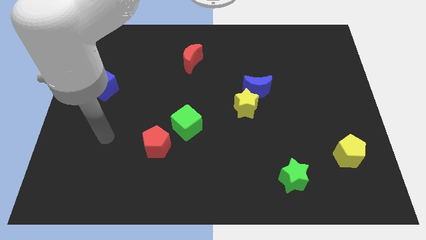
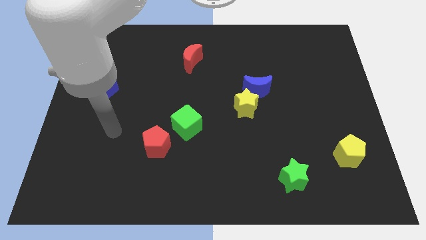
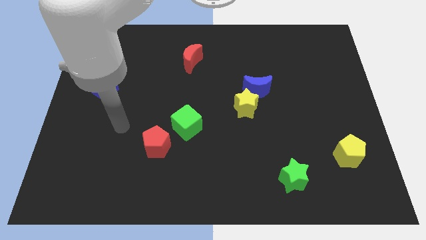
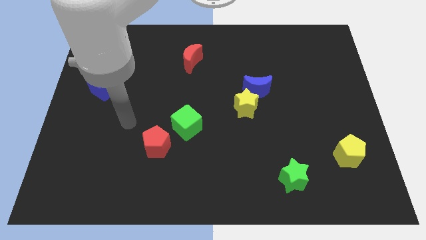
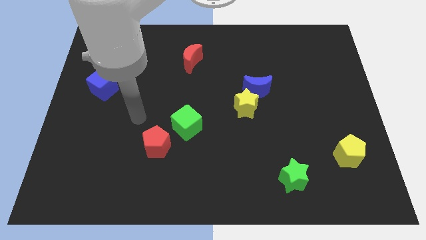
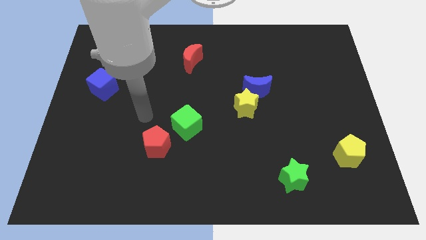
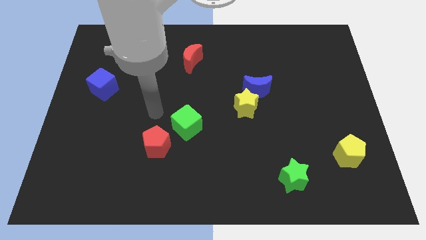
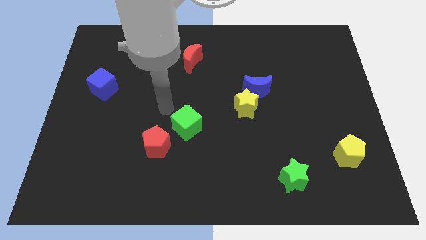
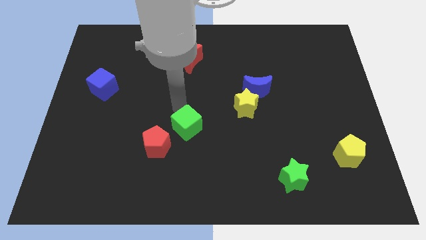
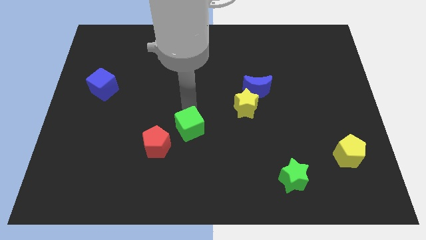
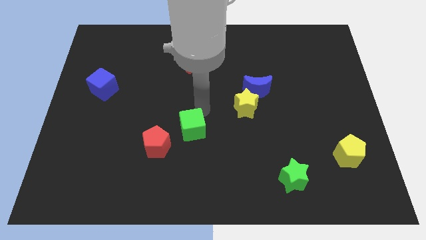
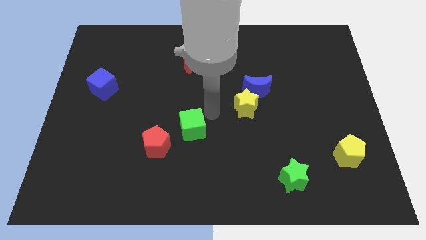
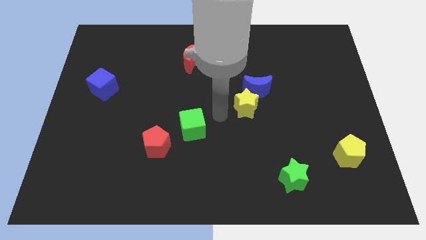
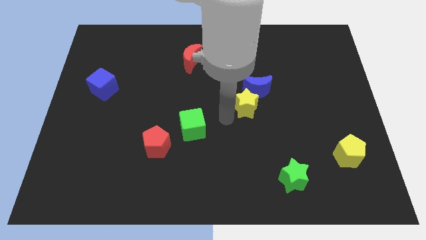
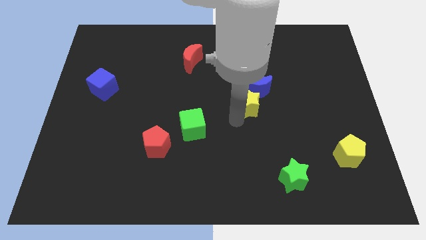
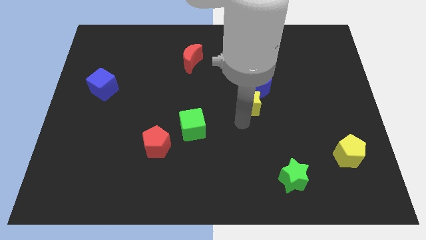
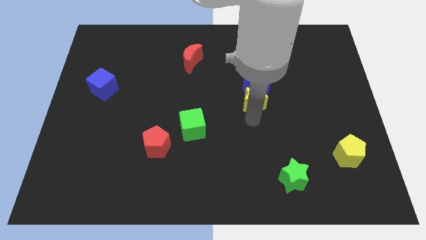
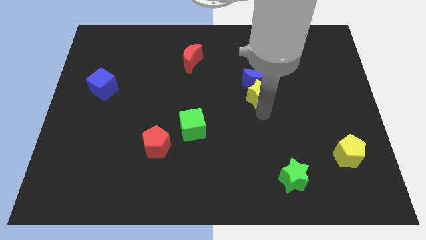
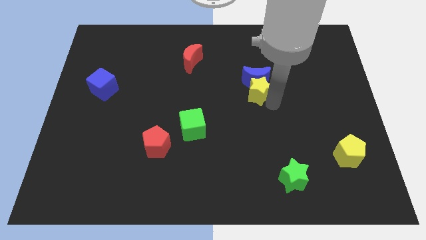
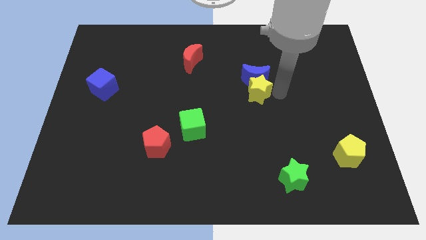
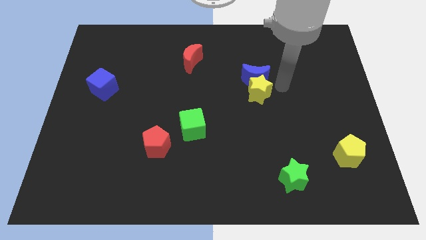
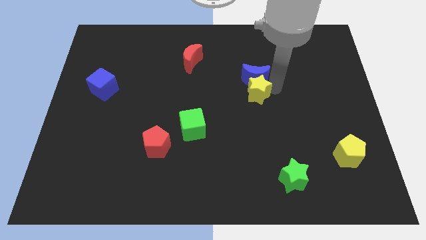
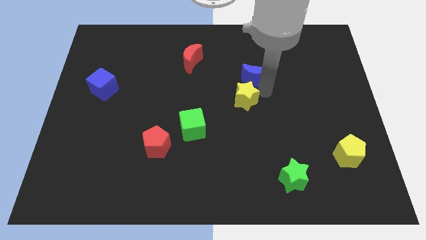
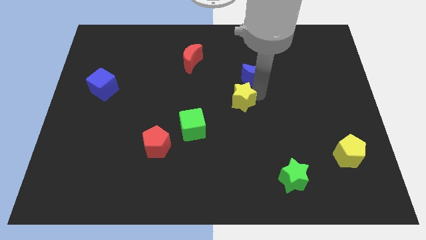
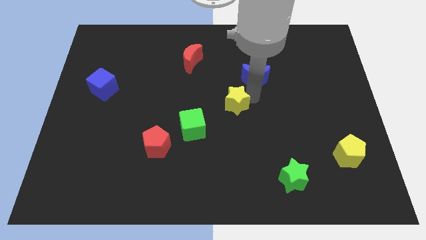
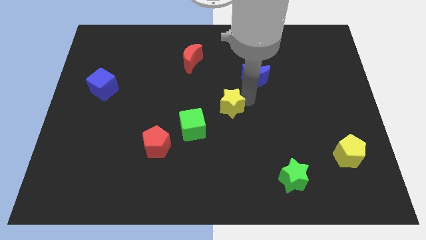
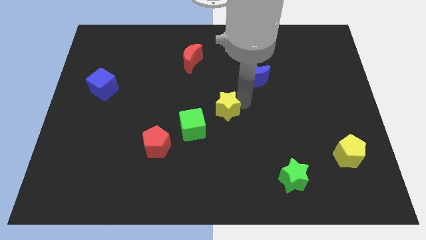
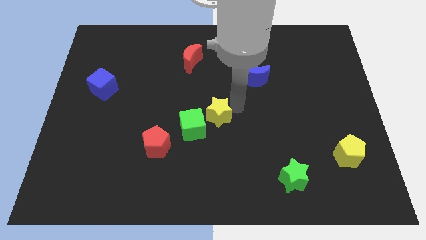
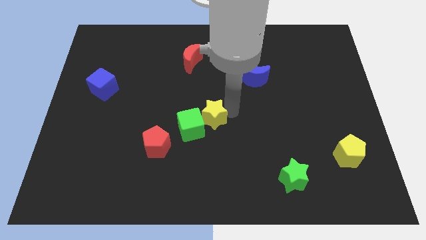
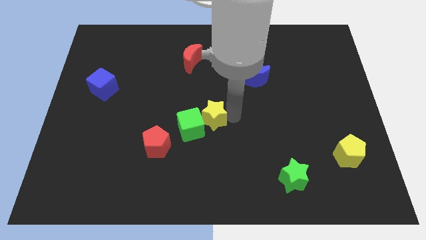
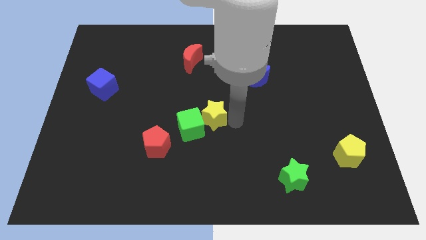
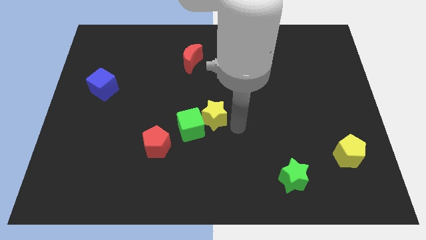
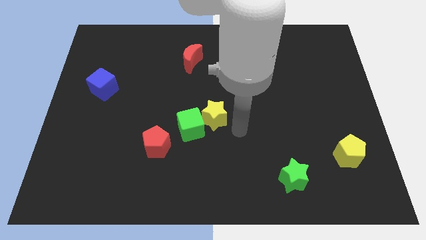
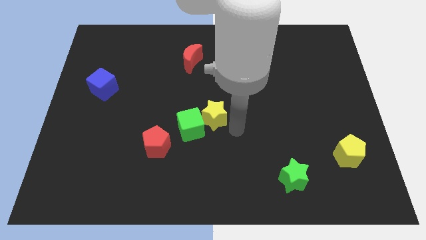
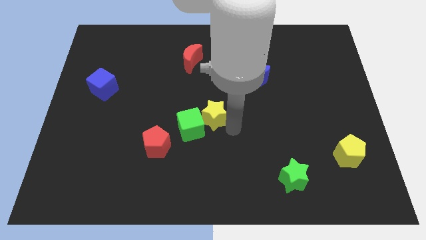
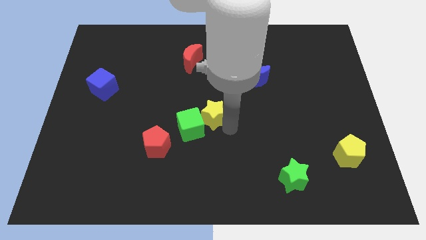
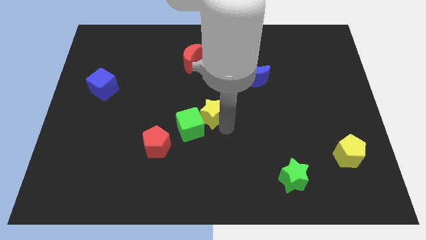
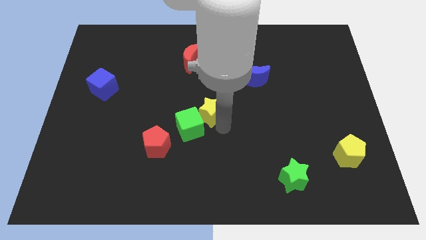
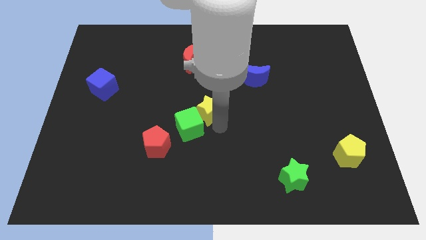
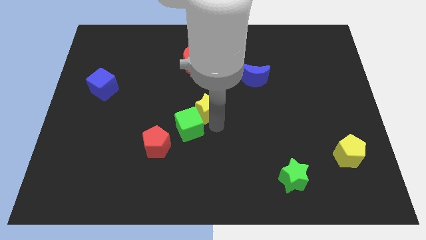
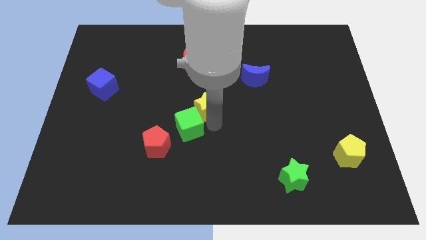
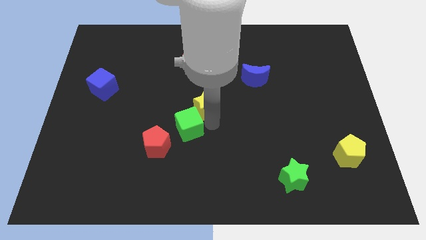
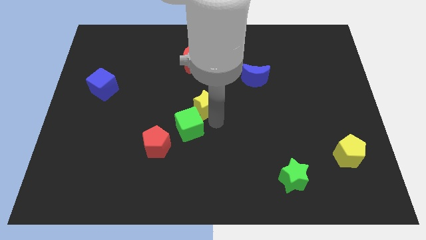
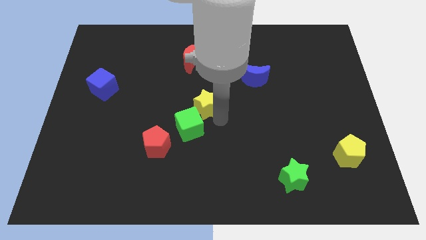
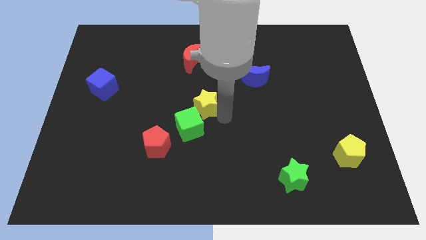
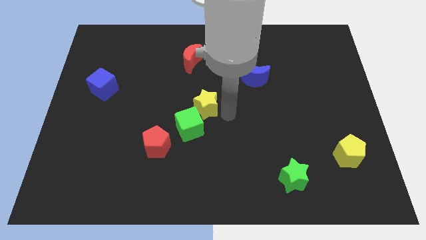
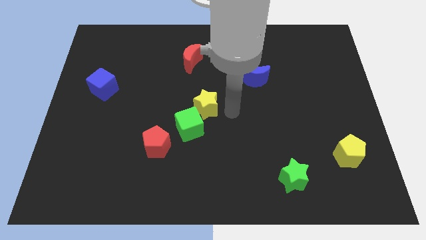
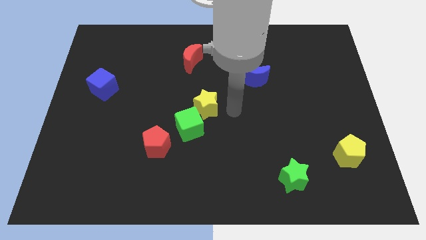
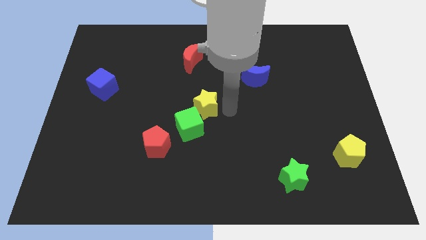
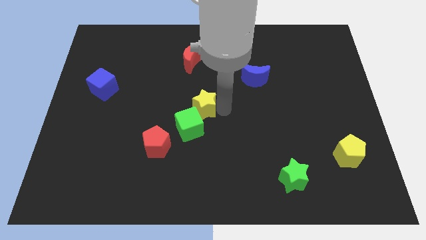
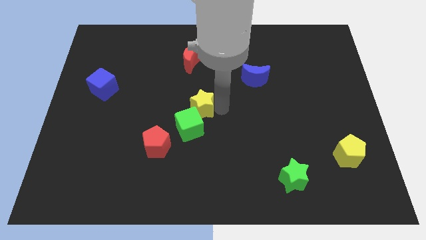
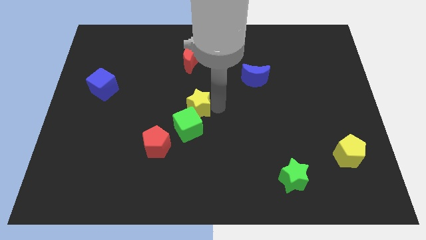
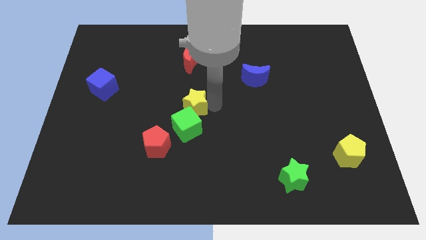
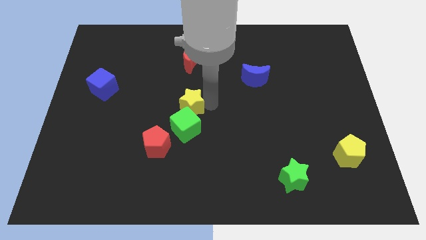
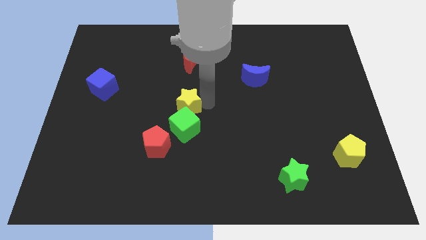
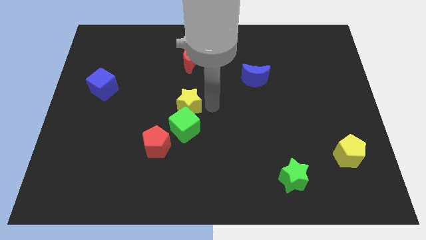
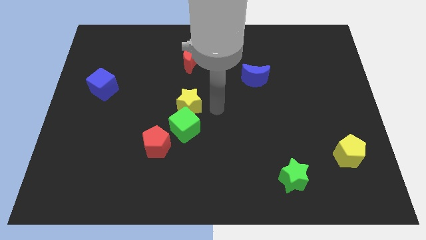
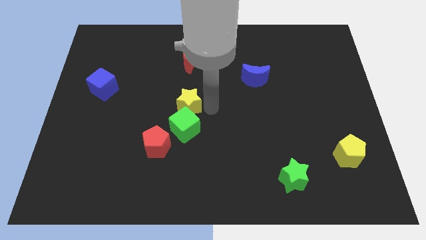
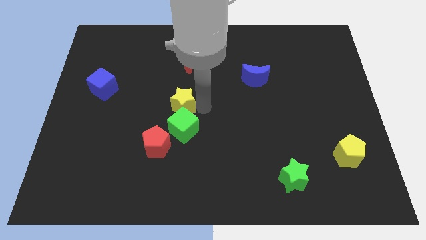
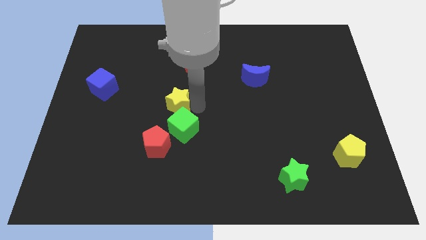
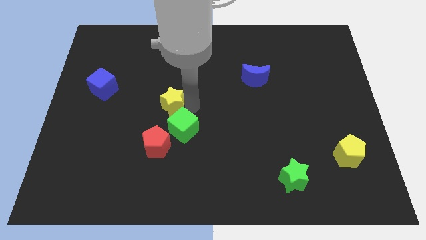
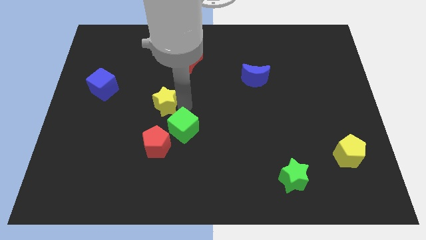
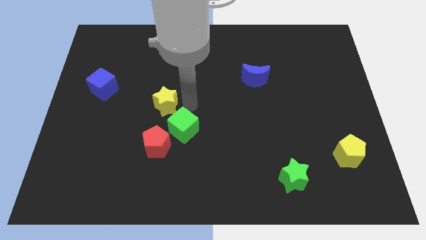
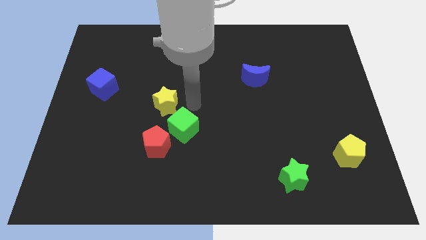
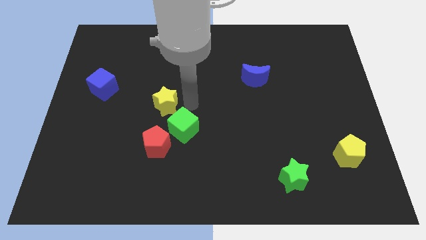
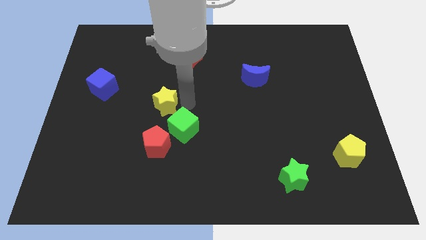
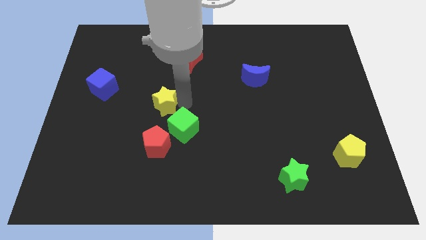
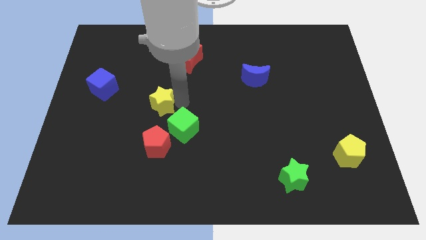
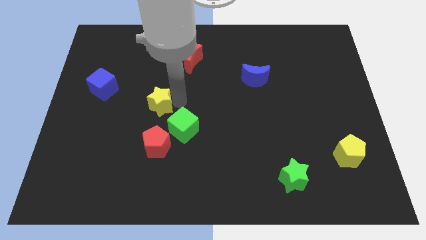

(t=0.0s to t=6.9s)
move the yellow star to the left

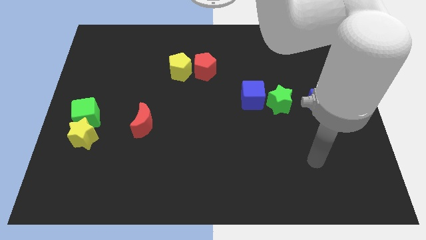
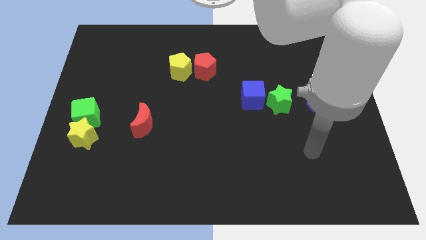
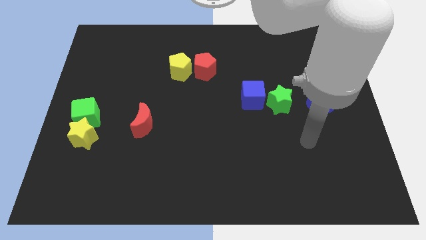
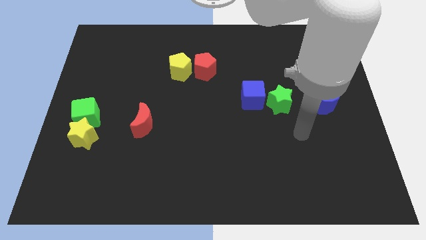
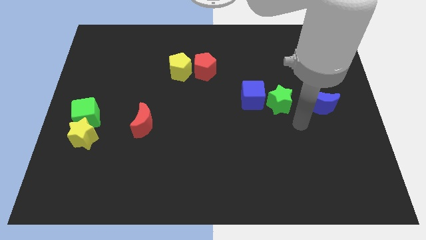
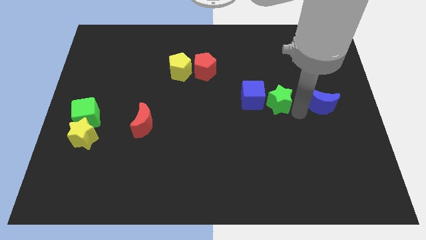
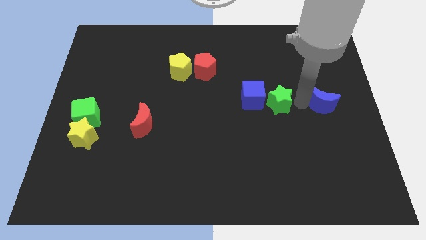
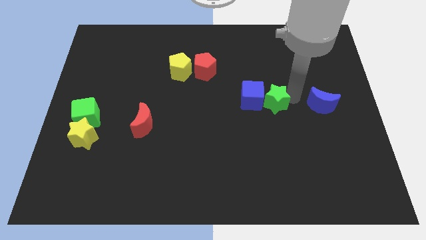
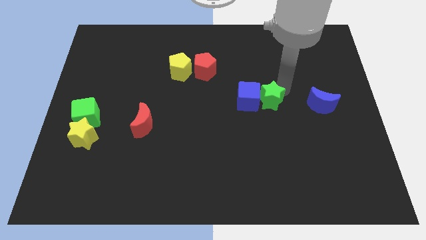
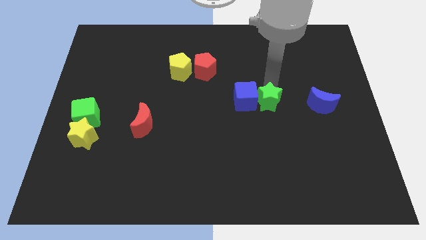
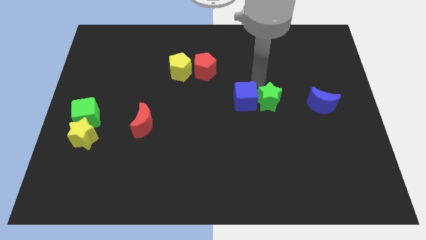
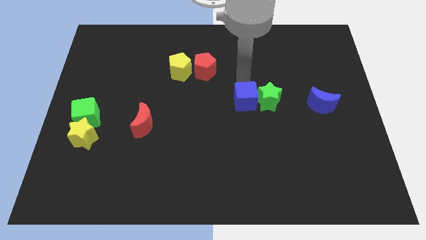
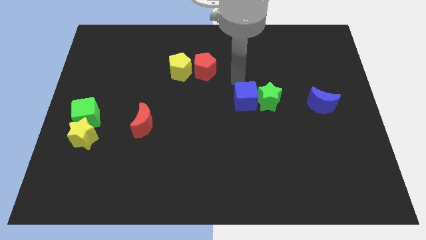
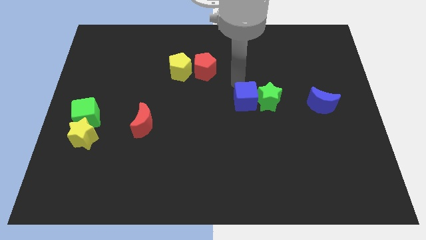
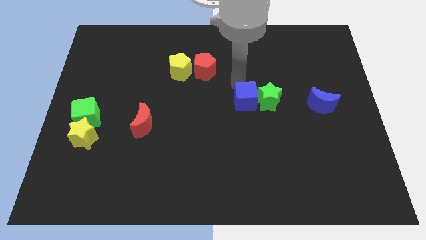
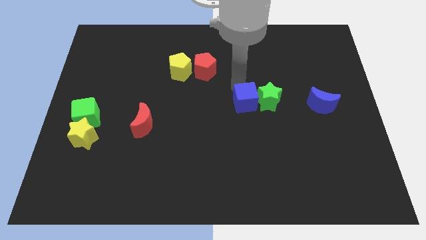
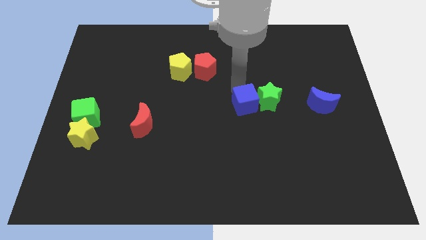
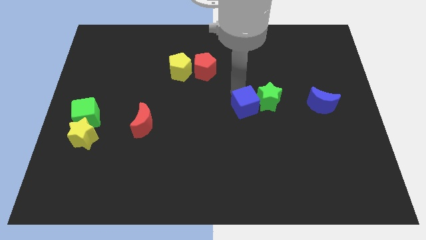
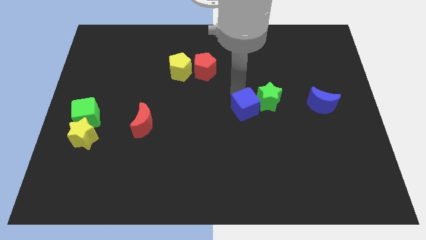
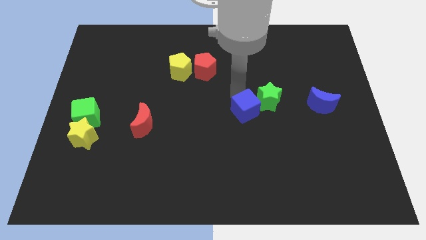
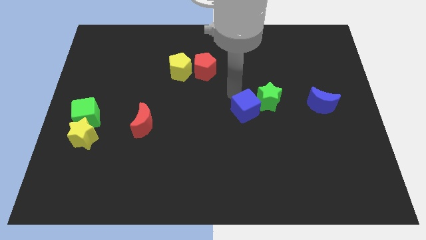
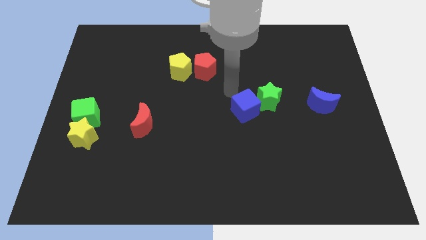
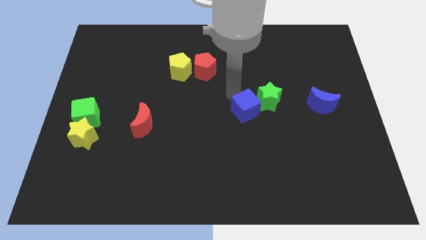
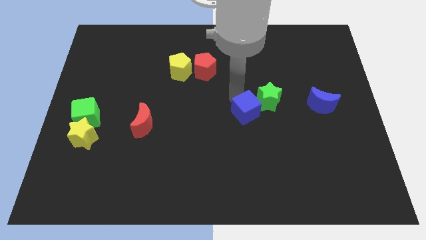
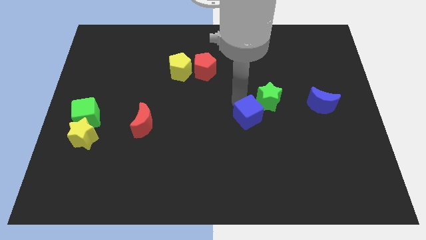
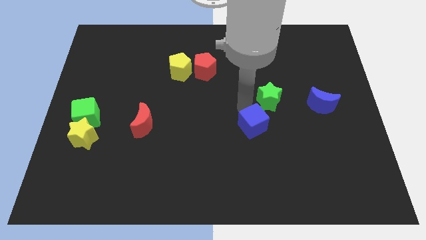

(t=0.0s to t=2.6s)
push the blue cube slightly downwards
